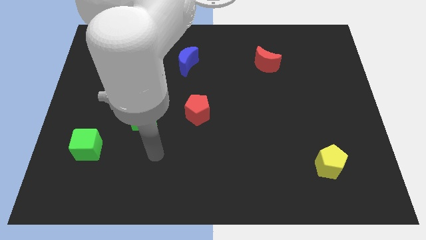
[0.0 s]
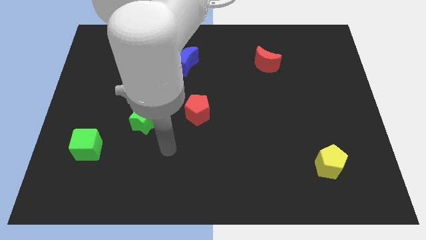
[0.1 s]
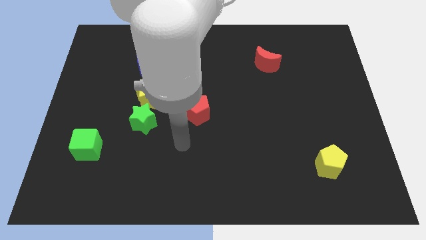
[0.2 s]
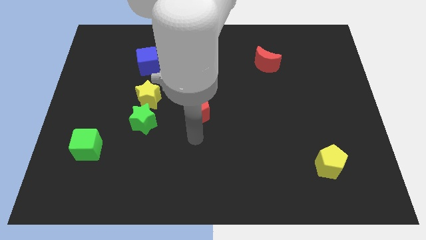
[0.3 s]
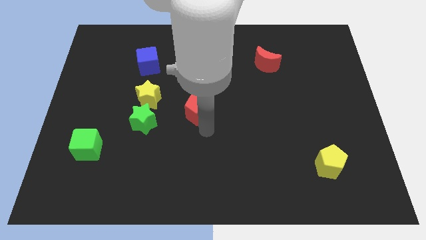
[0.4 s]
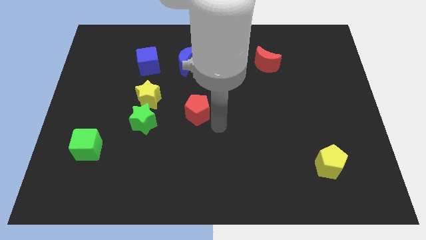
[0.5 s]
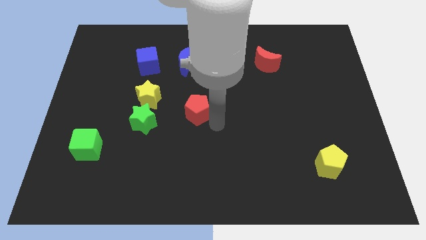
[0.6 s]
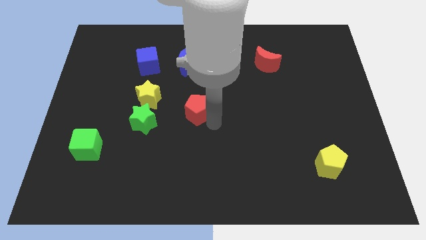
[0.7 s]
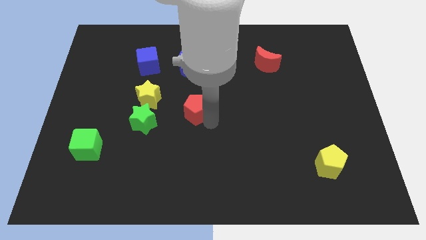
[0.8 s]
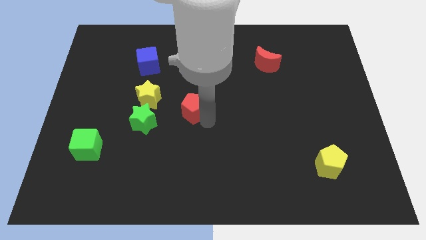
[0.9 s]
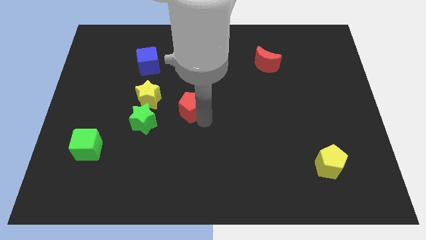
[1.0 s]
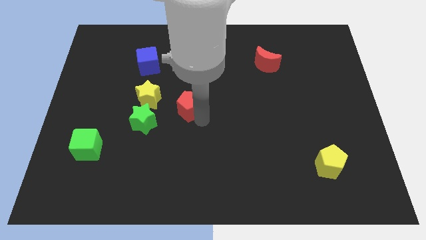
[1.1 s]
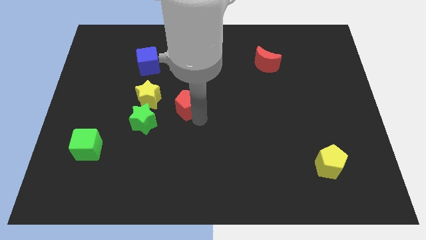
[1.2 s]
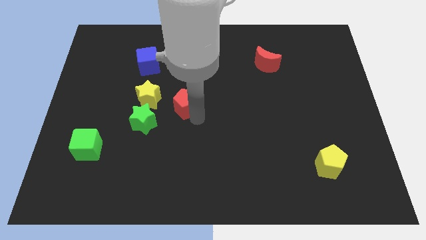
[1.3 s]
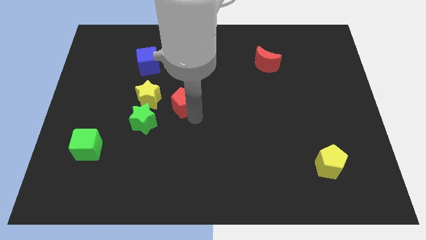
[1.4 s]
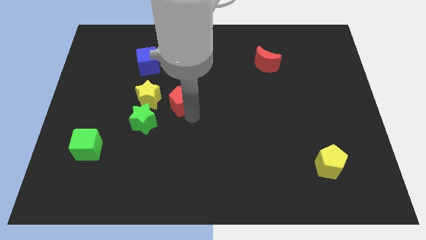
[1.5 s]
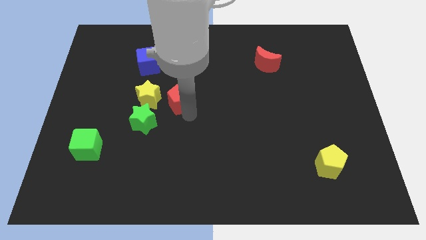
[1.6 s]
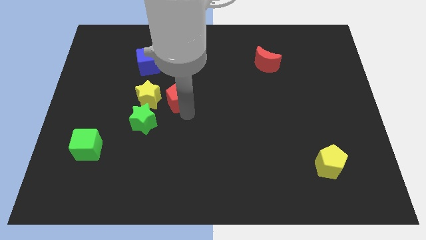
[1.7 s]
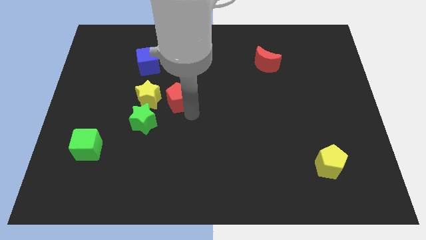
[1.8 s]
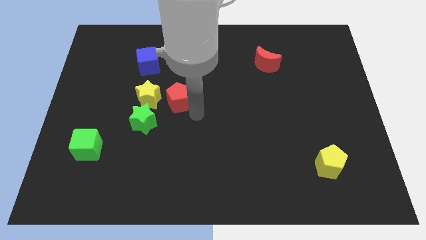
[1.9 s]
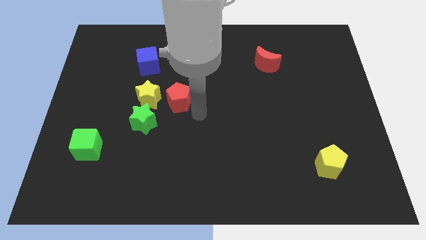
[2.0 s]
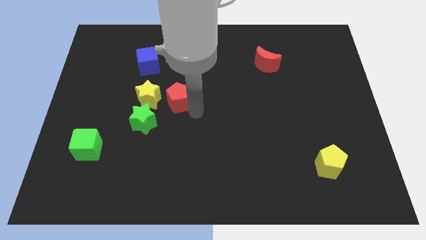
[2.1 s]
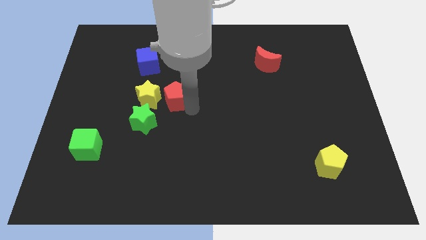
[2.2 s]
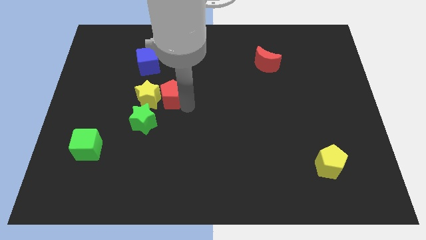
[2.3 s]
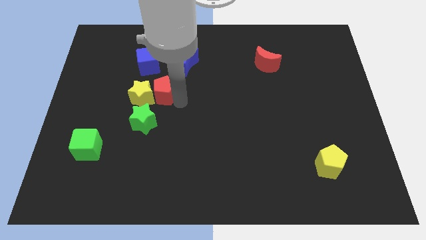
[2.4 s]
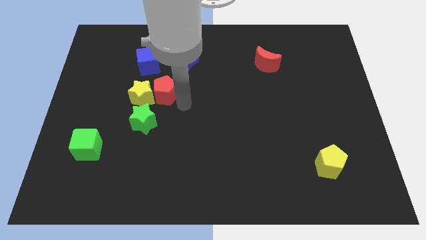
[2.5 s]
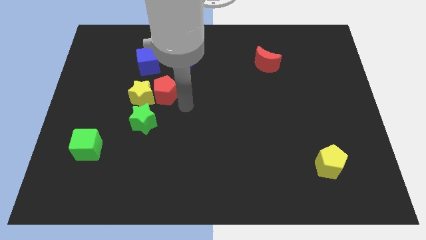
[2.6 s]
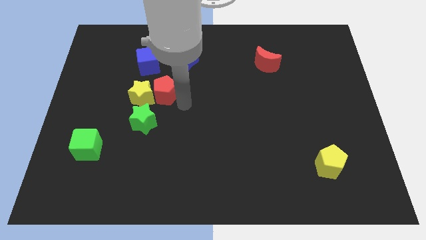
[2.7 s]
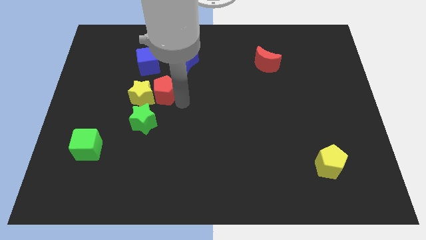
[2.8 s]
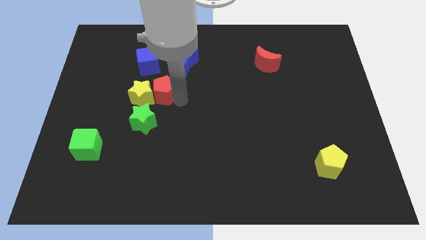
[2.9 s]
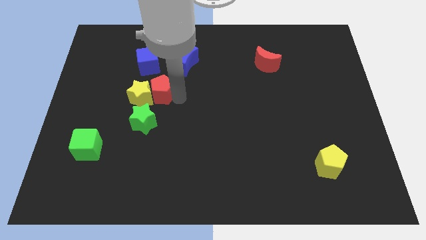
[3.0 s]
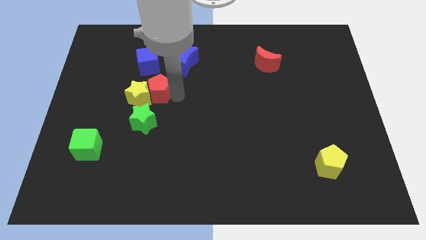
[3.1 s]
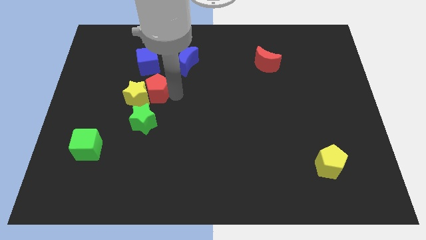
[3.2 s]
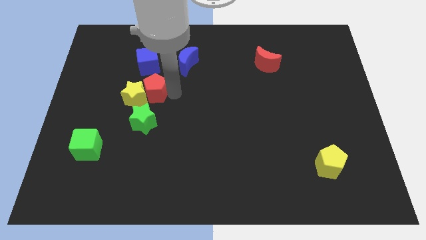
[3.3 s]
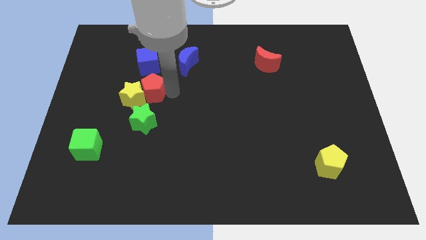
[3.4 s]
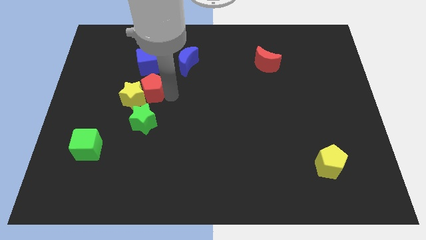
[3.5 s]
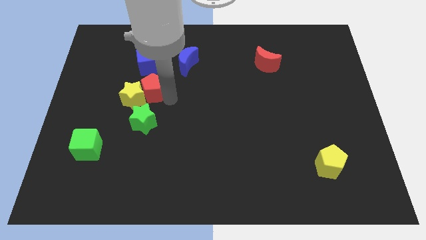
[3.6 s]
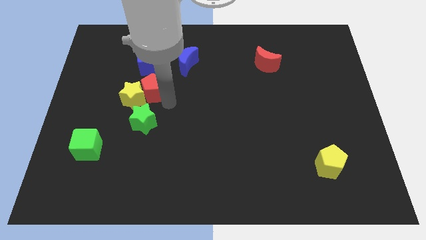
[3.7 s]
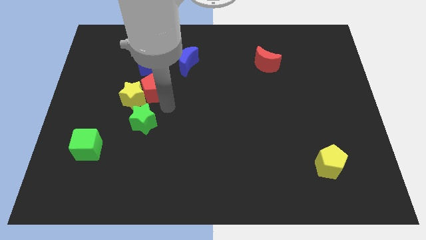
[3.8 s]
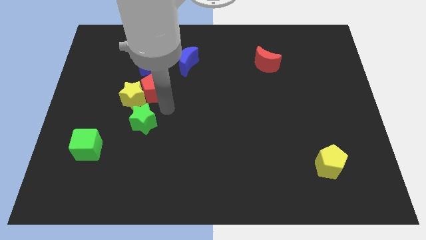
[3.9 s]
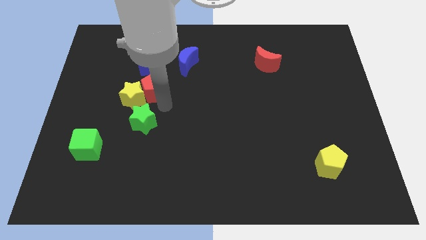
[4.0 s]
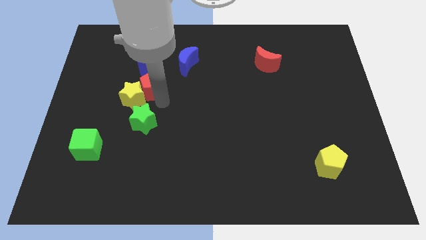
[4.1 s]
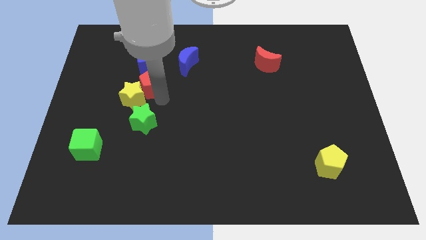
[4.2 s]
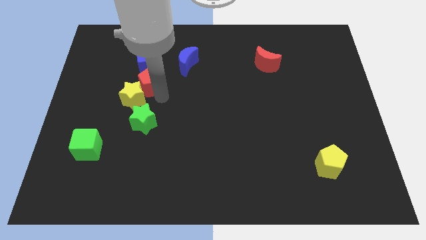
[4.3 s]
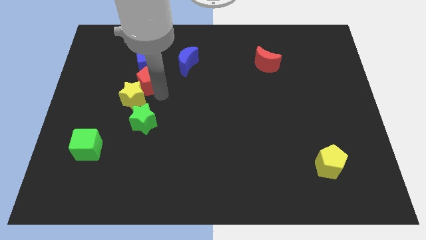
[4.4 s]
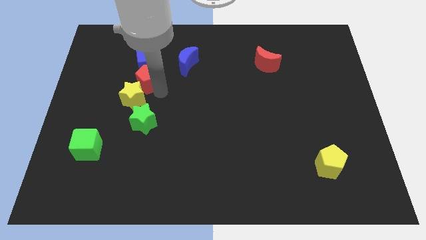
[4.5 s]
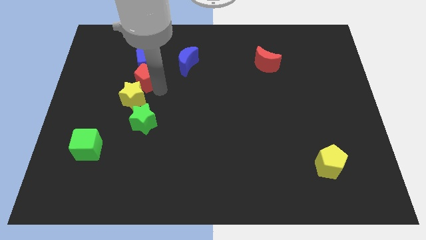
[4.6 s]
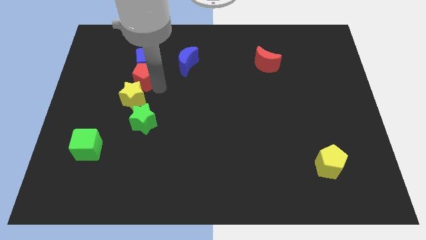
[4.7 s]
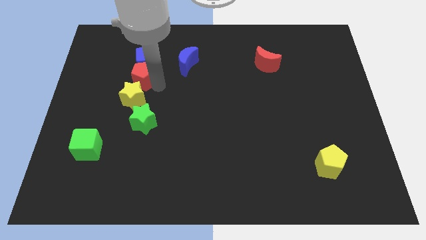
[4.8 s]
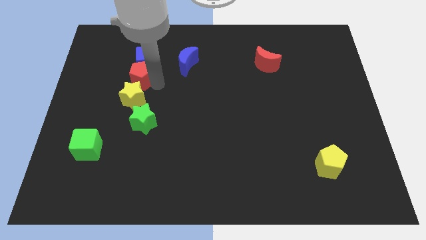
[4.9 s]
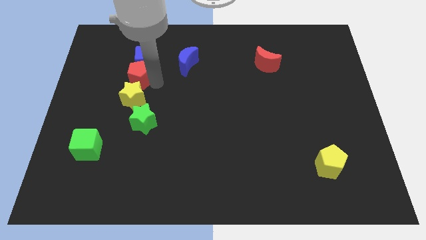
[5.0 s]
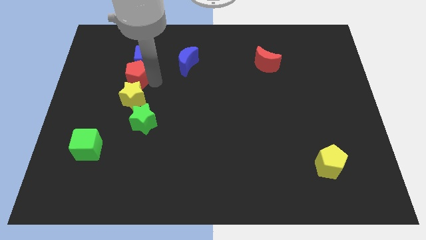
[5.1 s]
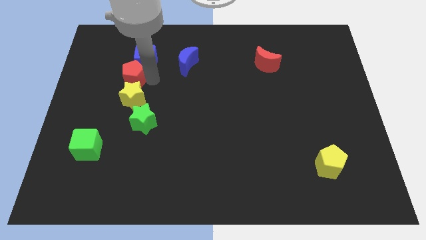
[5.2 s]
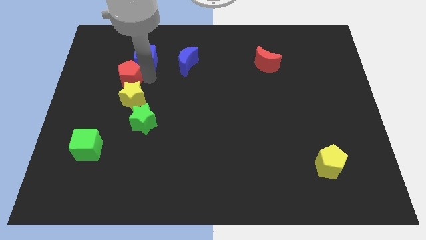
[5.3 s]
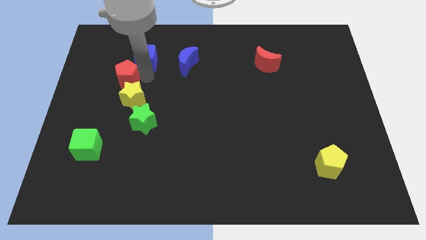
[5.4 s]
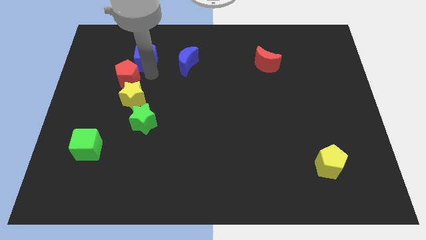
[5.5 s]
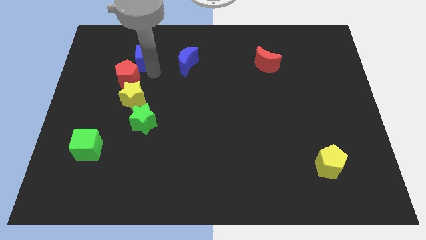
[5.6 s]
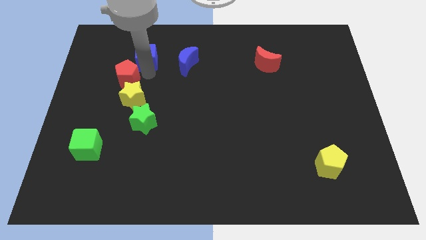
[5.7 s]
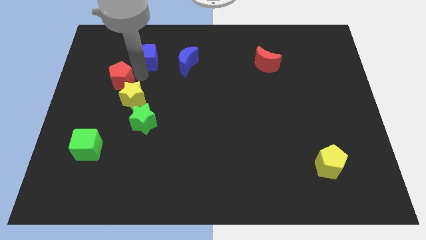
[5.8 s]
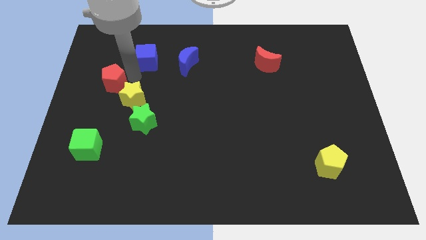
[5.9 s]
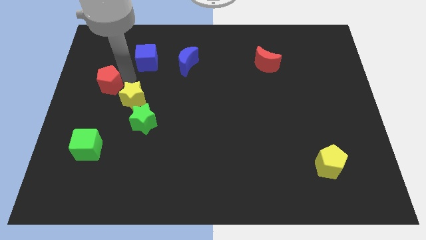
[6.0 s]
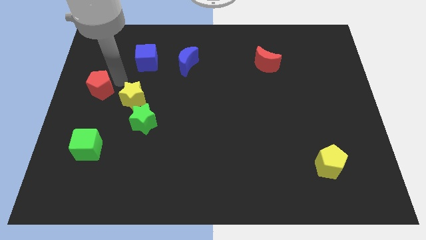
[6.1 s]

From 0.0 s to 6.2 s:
slide the red pentagon to the left side of the board
